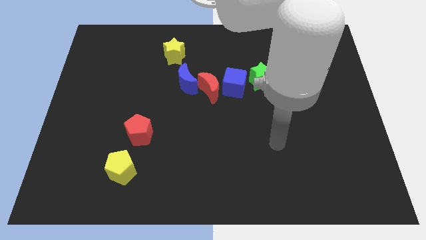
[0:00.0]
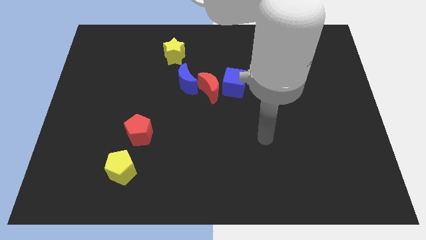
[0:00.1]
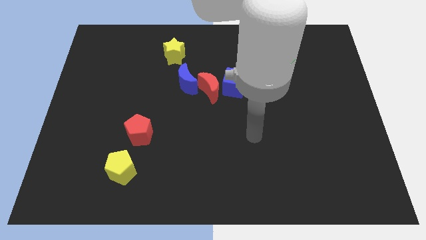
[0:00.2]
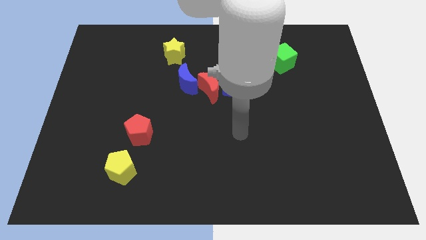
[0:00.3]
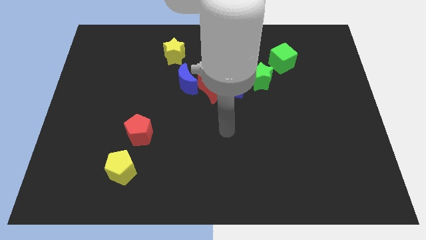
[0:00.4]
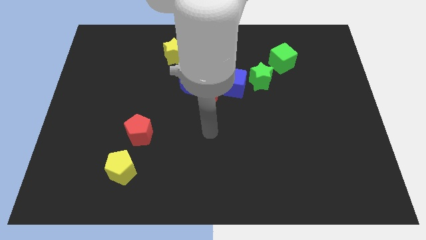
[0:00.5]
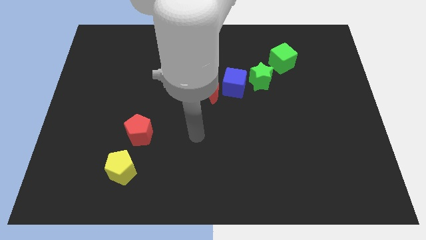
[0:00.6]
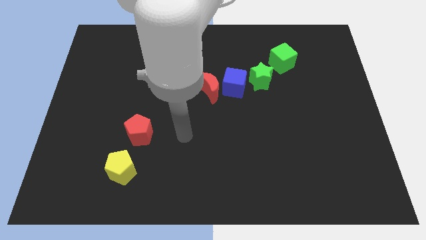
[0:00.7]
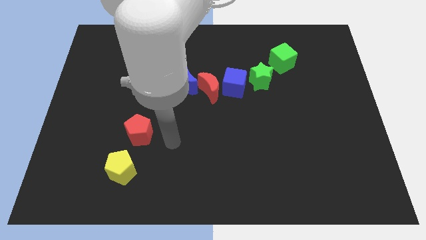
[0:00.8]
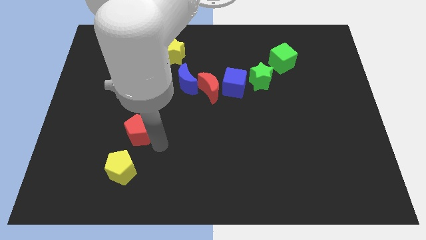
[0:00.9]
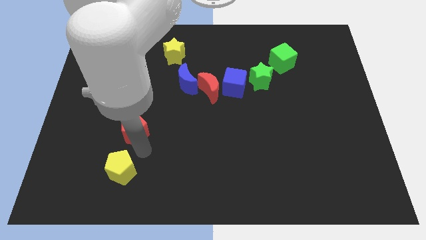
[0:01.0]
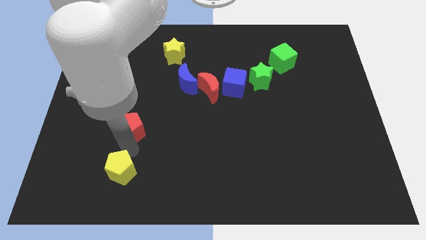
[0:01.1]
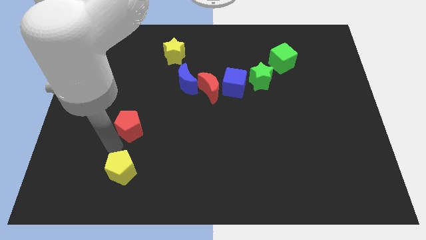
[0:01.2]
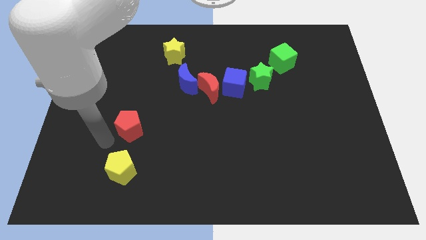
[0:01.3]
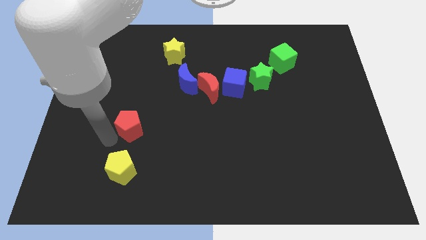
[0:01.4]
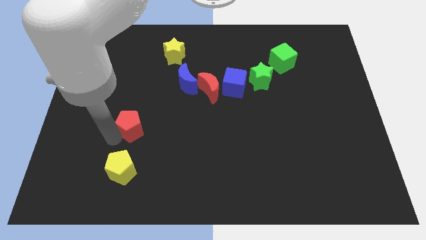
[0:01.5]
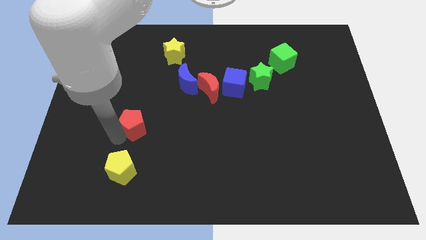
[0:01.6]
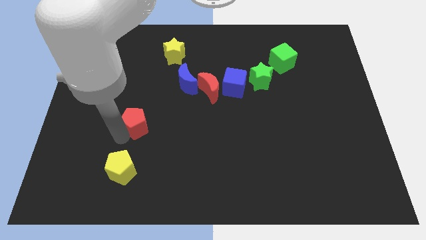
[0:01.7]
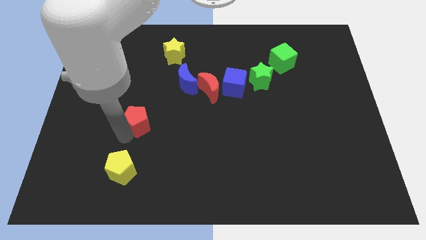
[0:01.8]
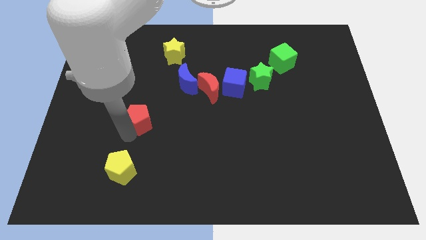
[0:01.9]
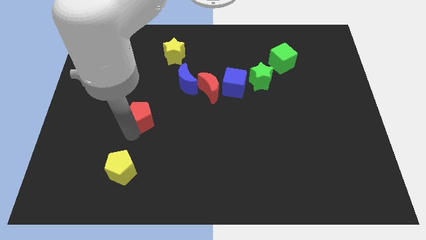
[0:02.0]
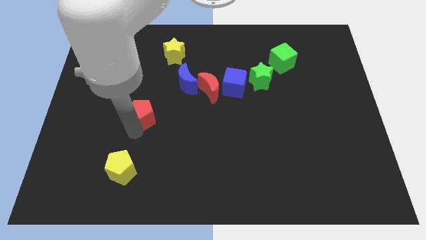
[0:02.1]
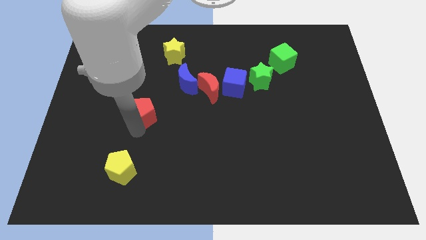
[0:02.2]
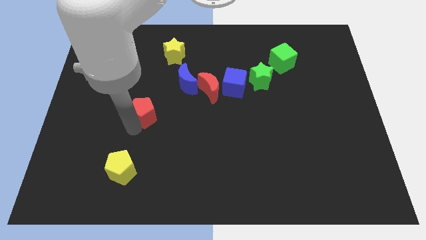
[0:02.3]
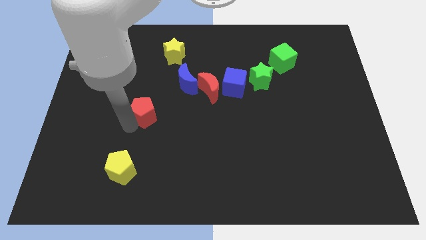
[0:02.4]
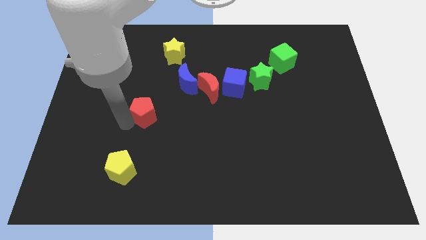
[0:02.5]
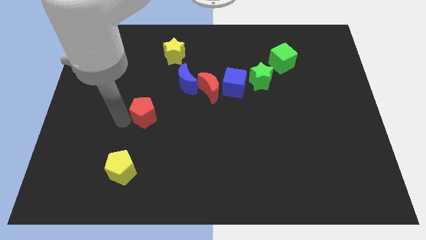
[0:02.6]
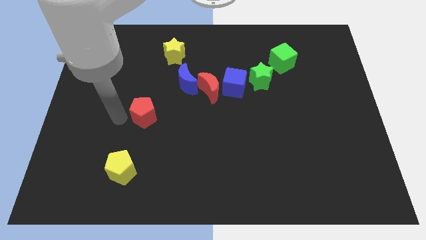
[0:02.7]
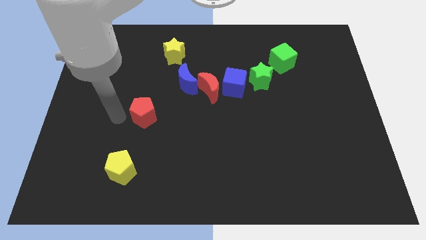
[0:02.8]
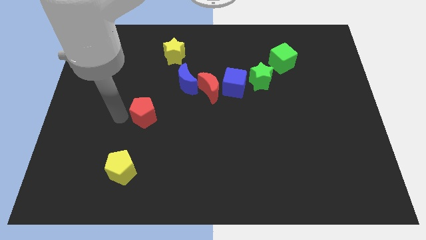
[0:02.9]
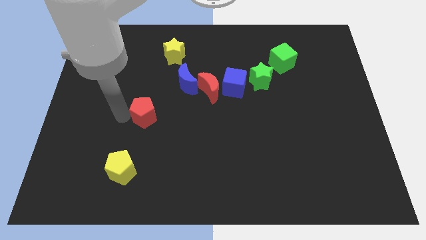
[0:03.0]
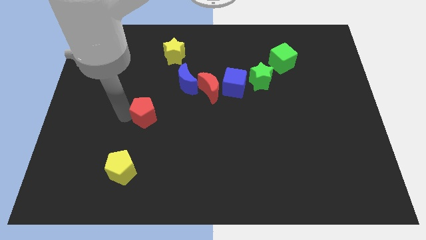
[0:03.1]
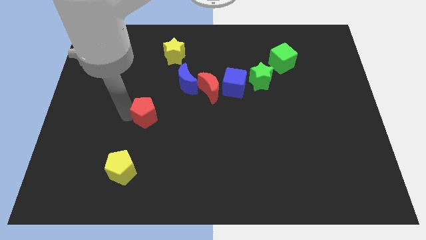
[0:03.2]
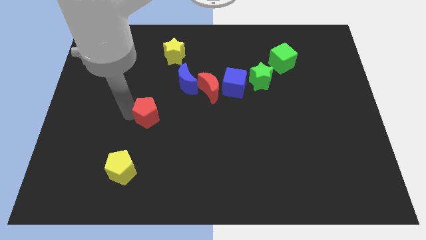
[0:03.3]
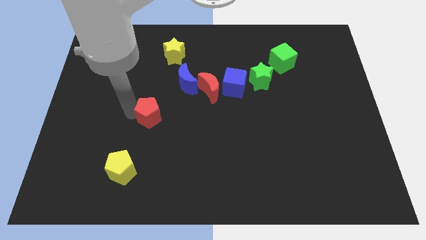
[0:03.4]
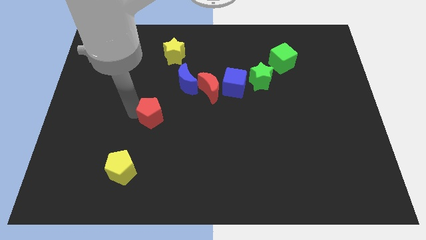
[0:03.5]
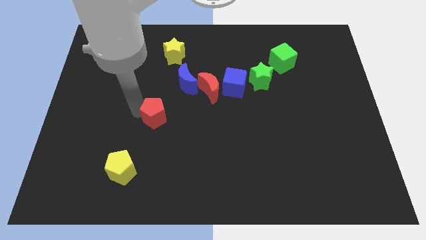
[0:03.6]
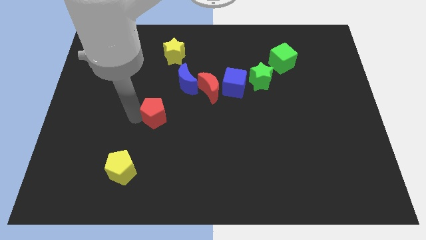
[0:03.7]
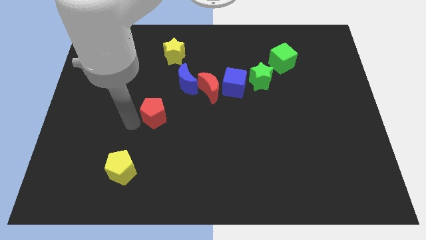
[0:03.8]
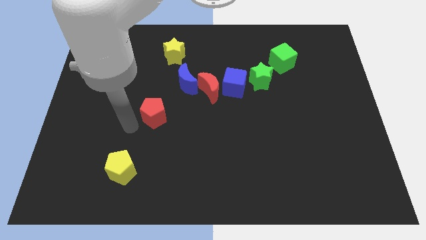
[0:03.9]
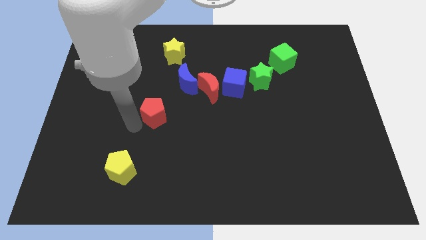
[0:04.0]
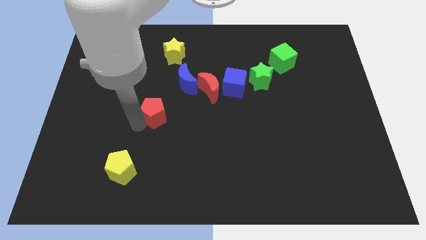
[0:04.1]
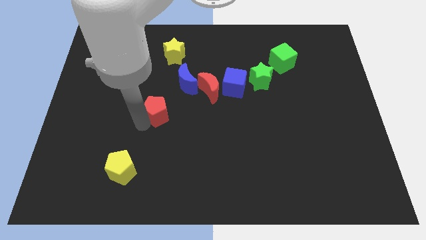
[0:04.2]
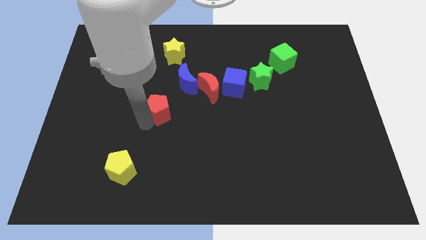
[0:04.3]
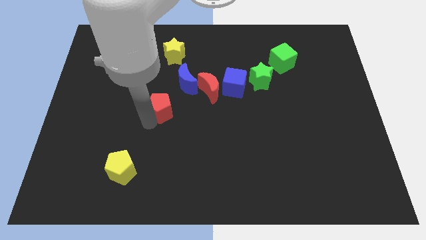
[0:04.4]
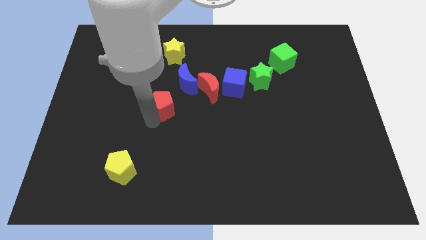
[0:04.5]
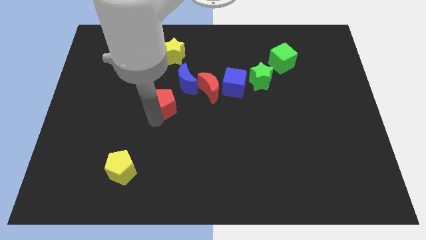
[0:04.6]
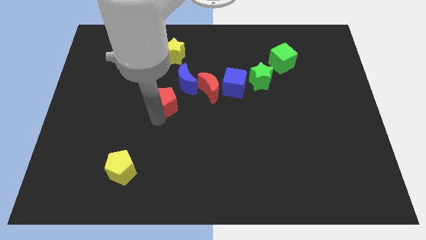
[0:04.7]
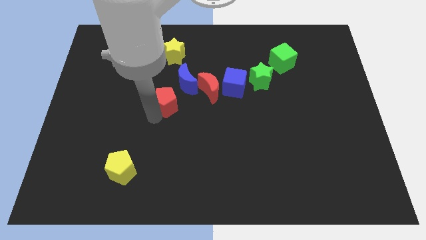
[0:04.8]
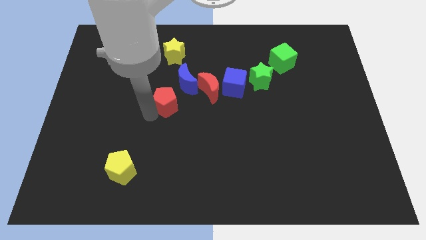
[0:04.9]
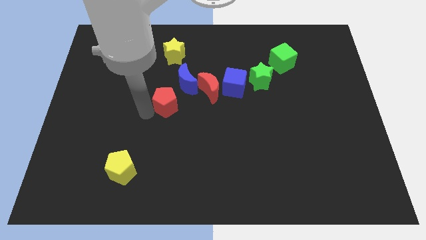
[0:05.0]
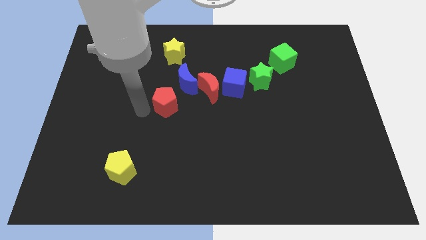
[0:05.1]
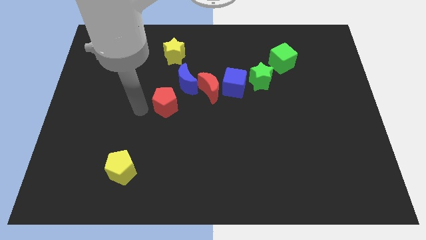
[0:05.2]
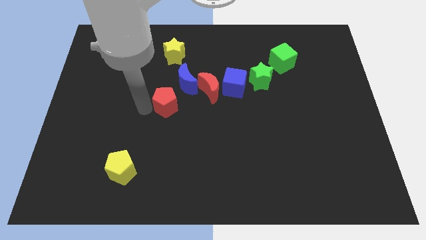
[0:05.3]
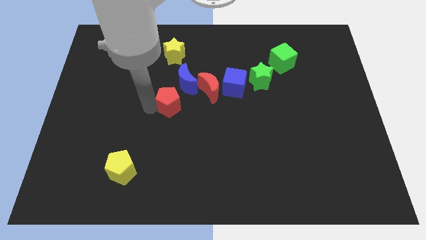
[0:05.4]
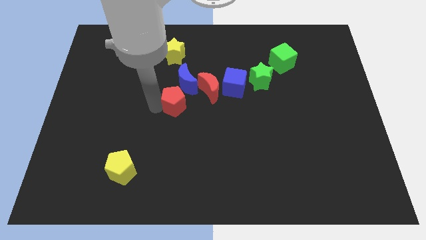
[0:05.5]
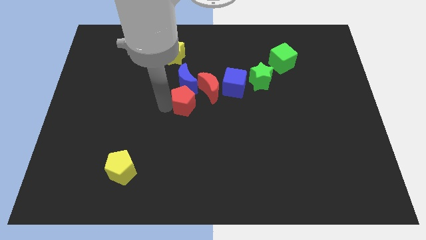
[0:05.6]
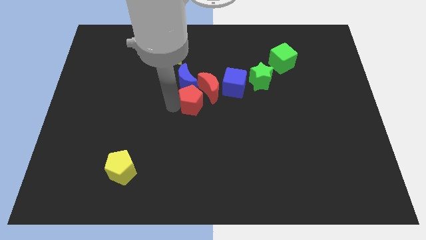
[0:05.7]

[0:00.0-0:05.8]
slide the red pentagon to the red moon

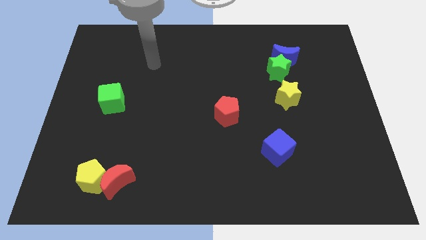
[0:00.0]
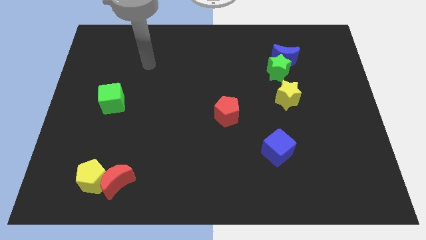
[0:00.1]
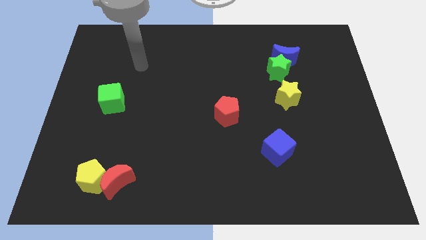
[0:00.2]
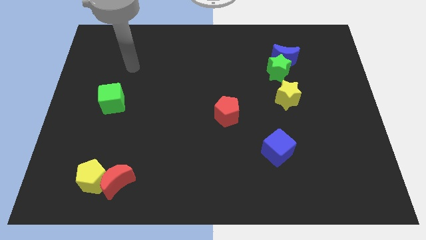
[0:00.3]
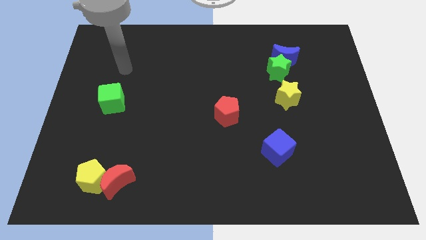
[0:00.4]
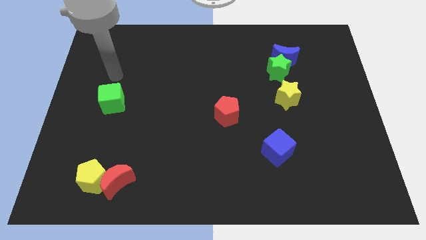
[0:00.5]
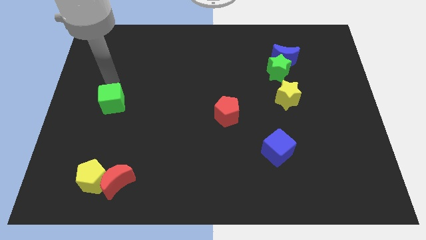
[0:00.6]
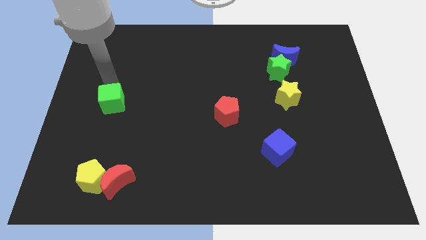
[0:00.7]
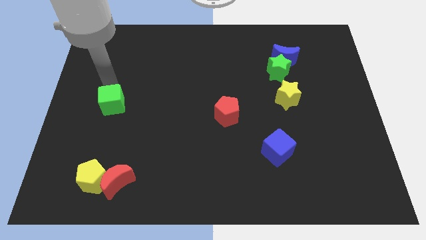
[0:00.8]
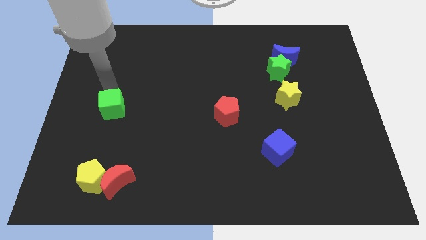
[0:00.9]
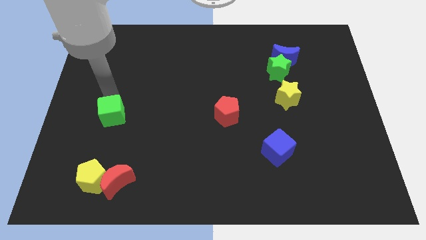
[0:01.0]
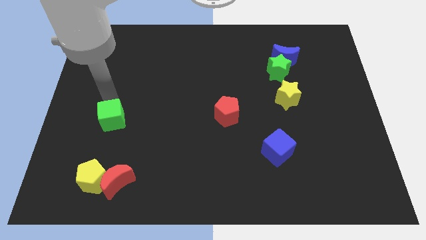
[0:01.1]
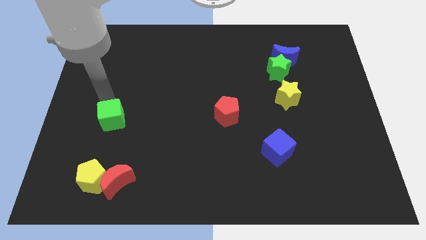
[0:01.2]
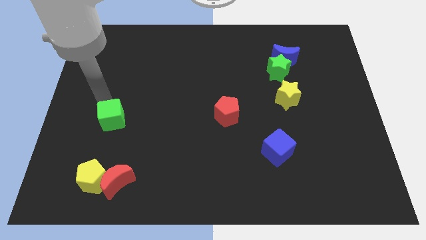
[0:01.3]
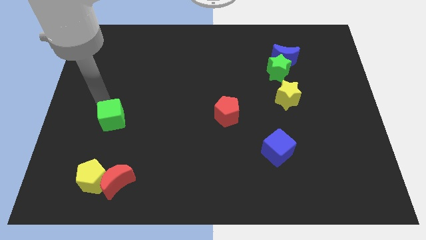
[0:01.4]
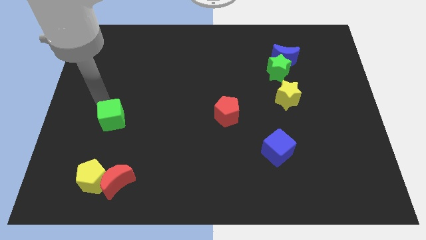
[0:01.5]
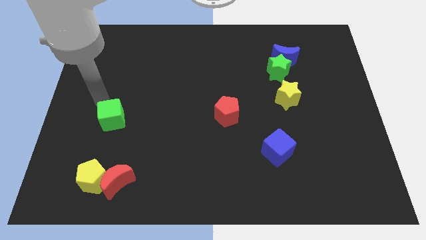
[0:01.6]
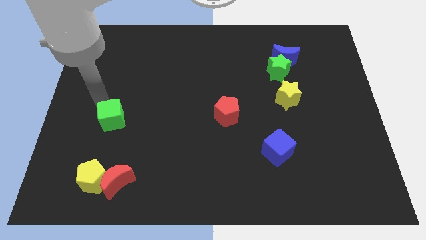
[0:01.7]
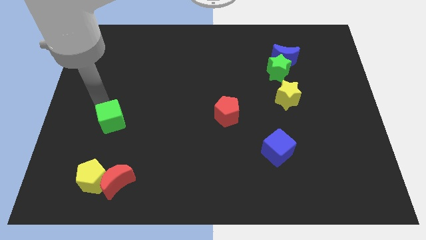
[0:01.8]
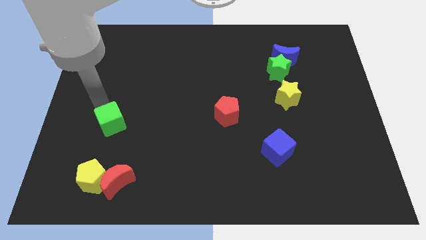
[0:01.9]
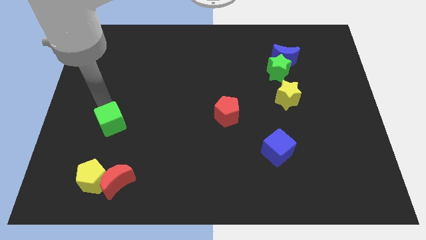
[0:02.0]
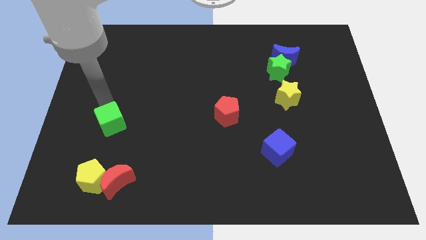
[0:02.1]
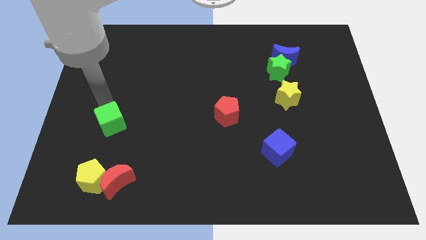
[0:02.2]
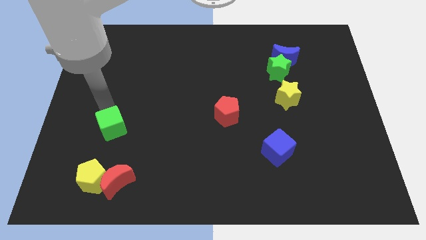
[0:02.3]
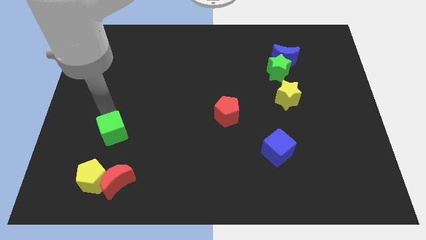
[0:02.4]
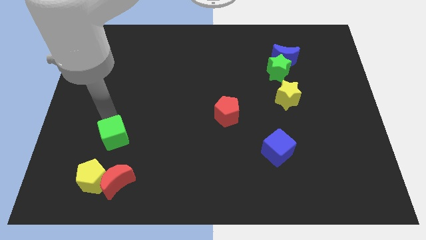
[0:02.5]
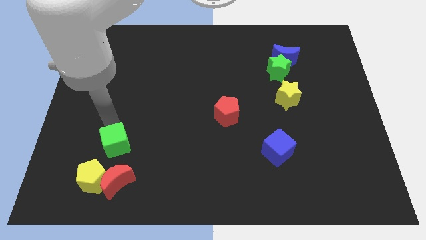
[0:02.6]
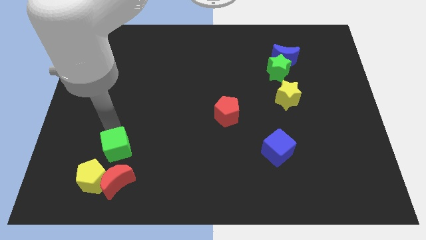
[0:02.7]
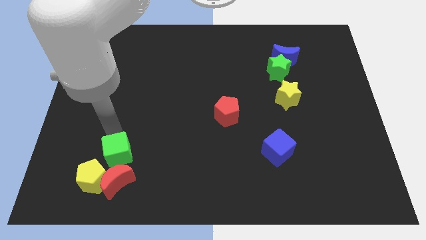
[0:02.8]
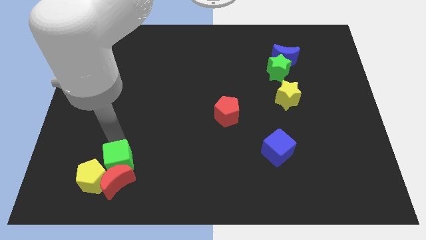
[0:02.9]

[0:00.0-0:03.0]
push the green cube close to the red moon
